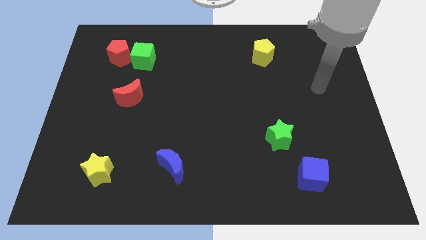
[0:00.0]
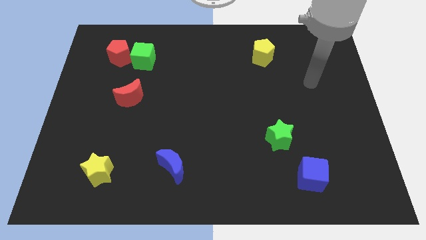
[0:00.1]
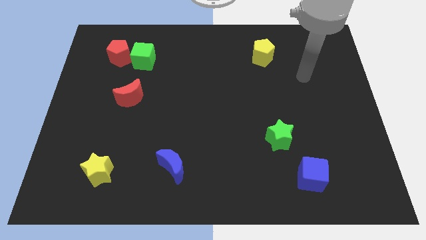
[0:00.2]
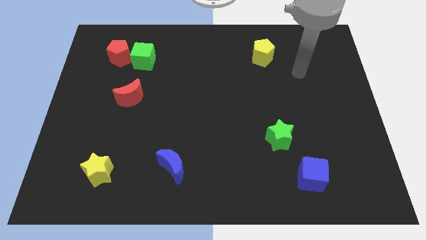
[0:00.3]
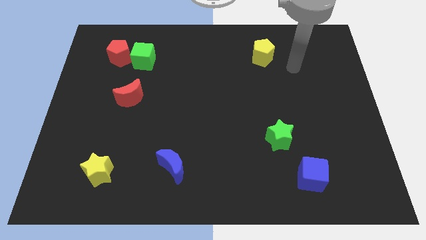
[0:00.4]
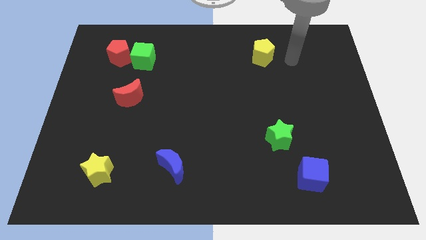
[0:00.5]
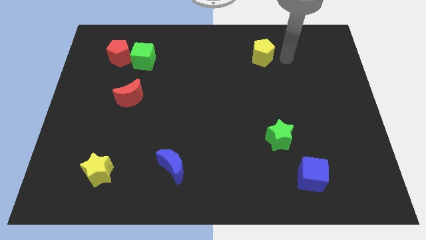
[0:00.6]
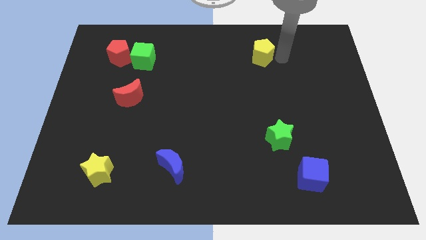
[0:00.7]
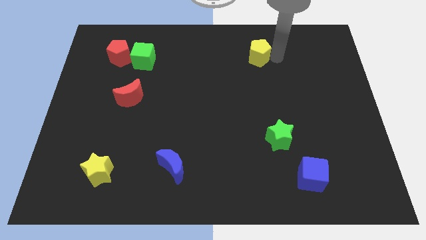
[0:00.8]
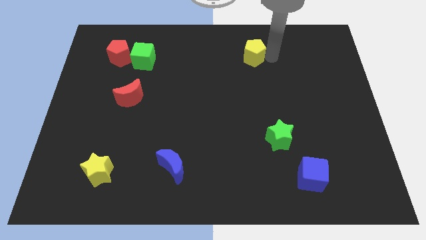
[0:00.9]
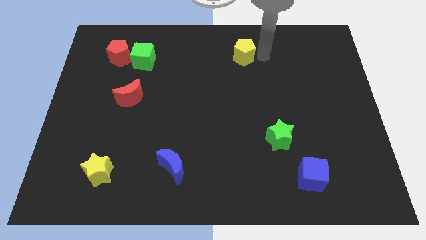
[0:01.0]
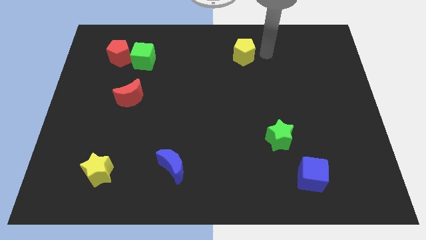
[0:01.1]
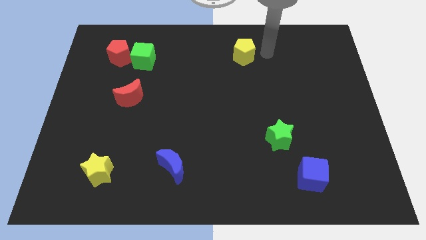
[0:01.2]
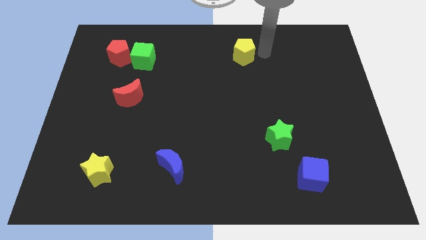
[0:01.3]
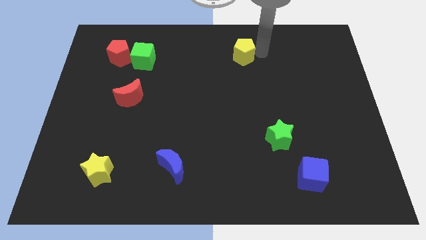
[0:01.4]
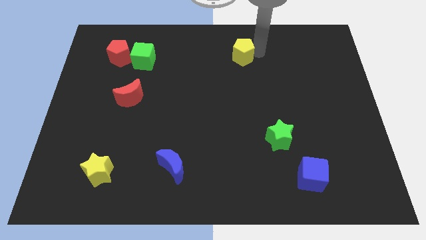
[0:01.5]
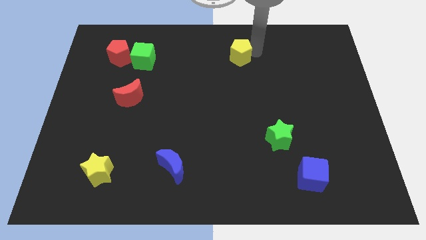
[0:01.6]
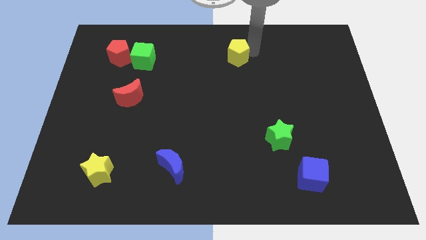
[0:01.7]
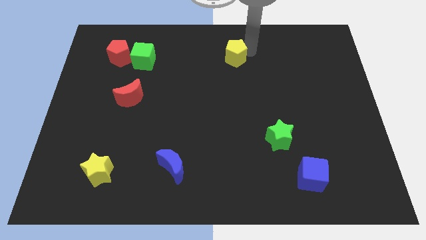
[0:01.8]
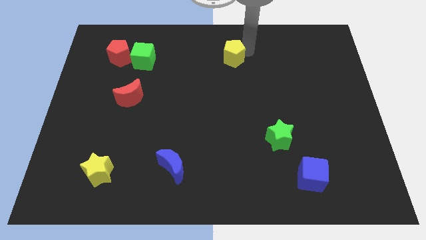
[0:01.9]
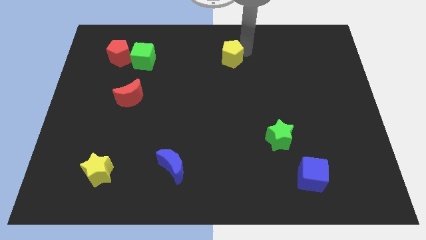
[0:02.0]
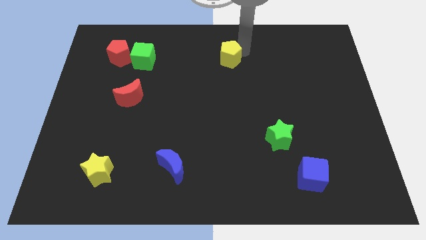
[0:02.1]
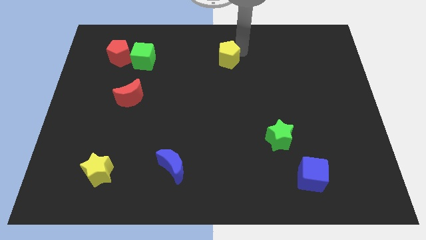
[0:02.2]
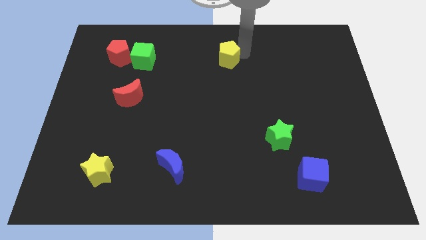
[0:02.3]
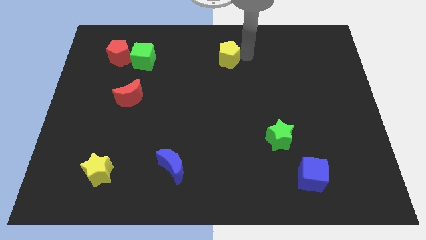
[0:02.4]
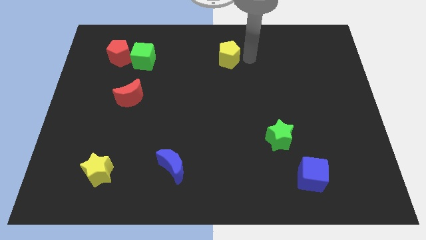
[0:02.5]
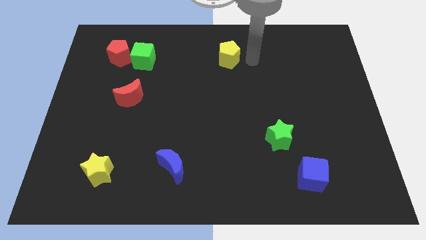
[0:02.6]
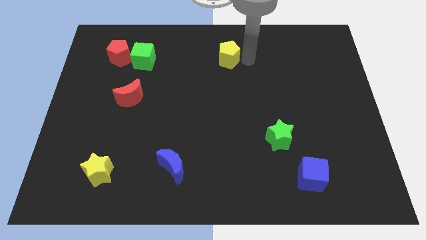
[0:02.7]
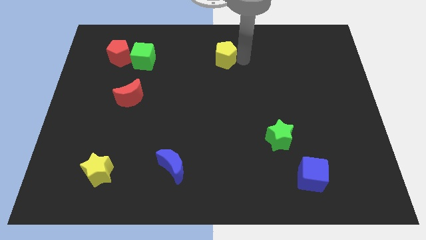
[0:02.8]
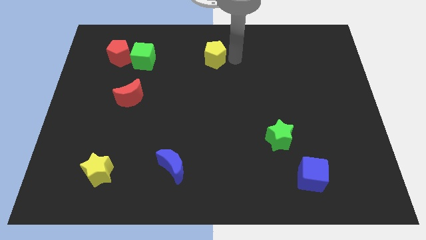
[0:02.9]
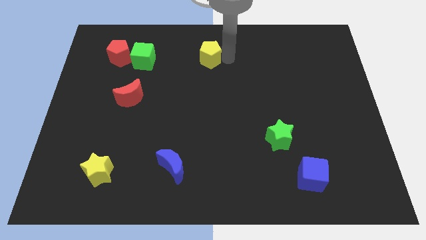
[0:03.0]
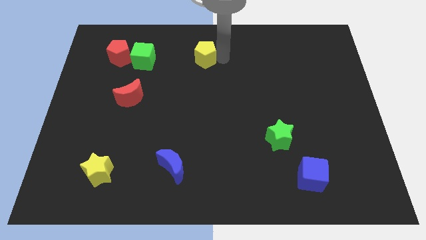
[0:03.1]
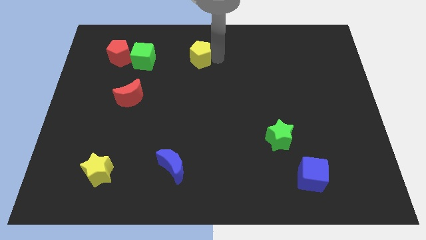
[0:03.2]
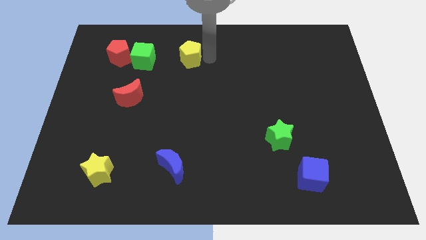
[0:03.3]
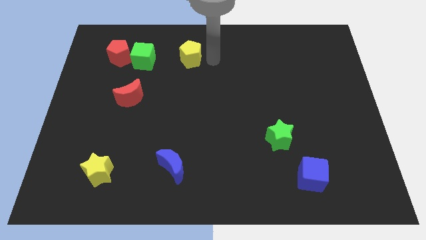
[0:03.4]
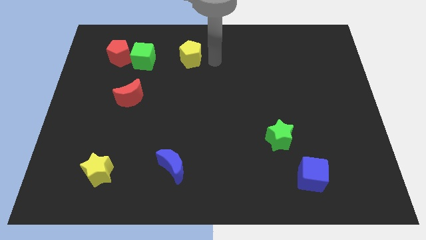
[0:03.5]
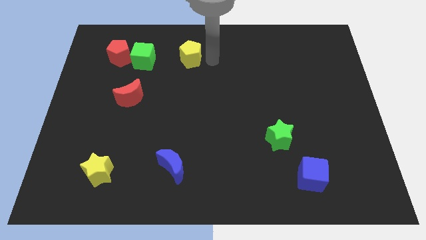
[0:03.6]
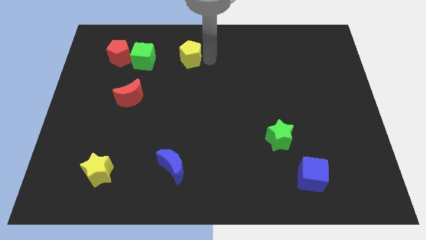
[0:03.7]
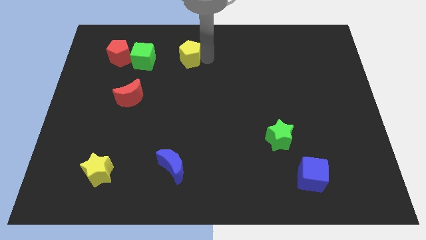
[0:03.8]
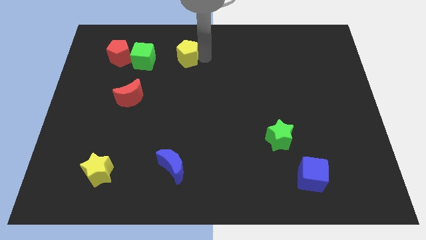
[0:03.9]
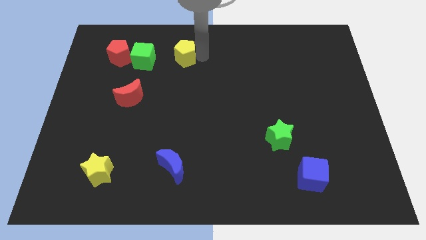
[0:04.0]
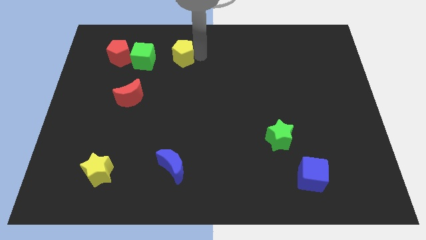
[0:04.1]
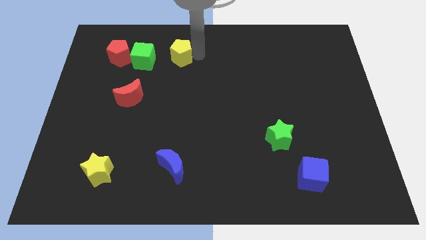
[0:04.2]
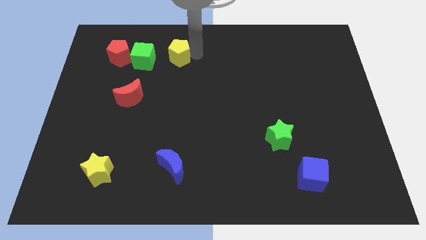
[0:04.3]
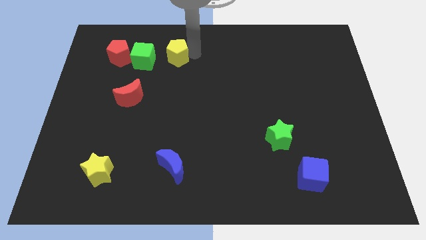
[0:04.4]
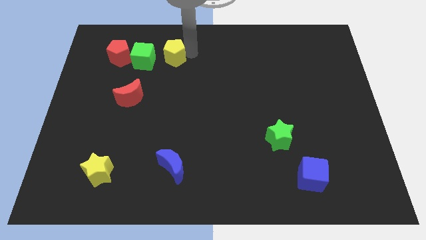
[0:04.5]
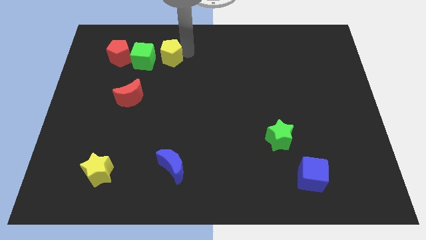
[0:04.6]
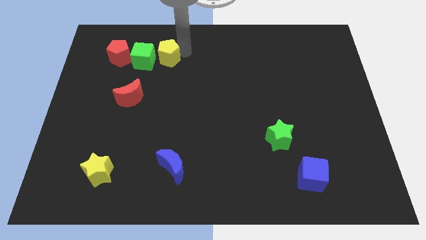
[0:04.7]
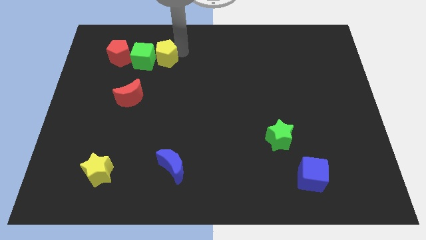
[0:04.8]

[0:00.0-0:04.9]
slide the yellow pentagon towards the green cube

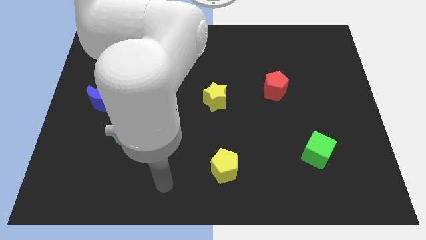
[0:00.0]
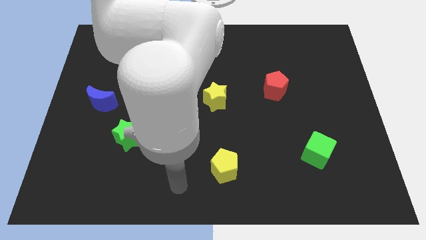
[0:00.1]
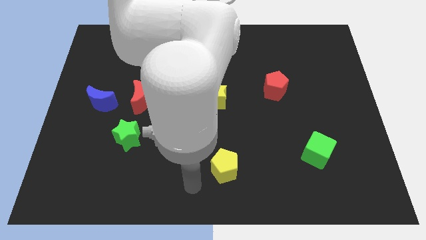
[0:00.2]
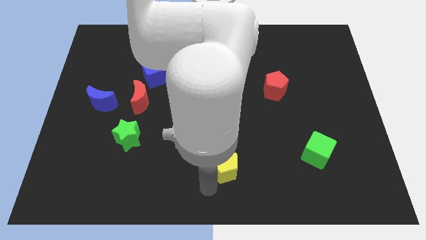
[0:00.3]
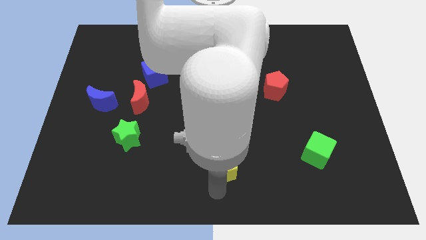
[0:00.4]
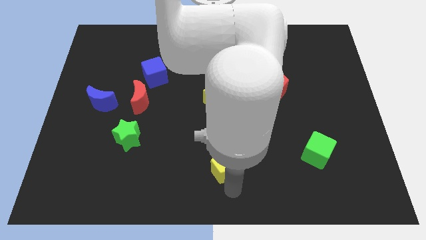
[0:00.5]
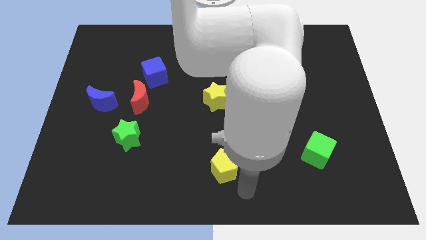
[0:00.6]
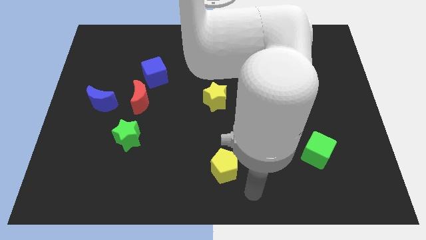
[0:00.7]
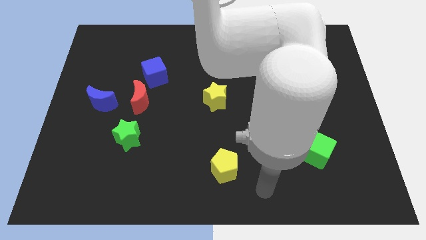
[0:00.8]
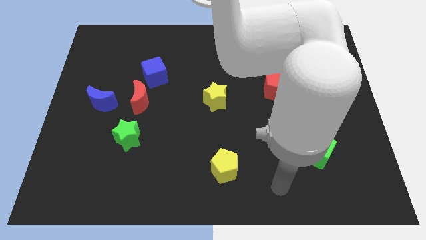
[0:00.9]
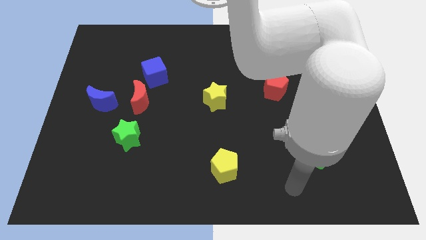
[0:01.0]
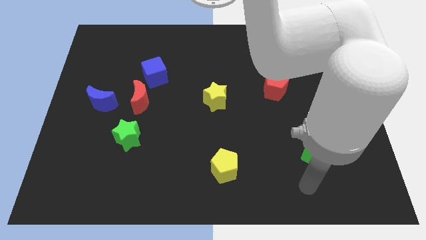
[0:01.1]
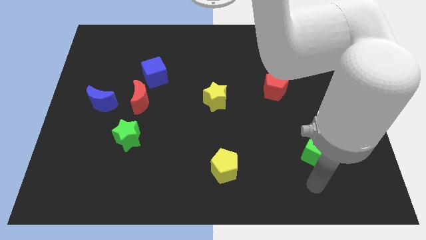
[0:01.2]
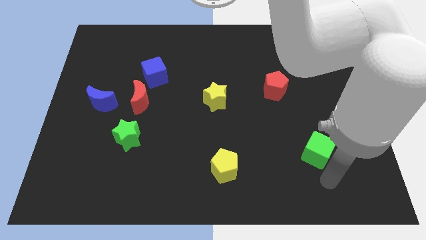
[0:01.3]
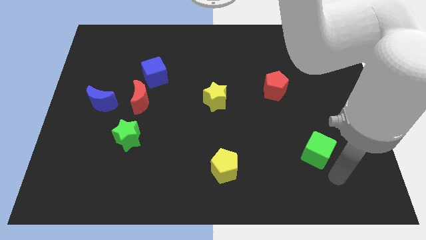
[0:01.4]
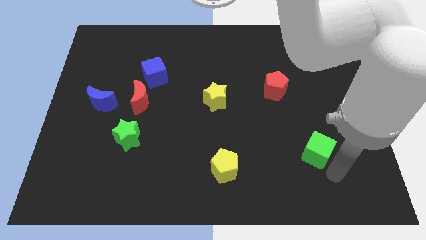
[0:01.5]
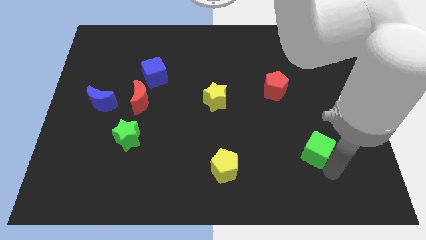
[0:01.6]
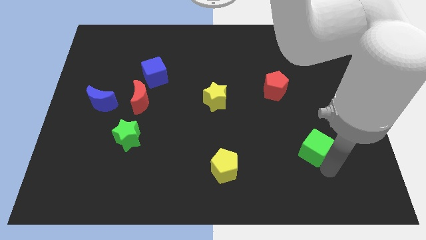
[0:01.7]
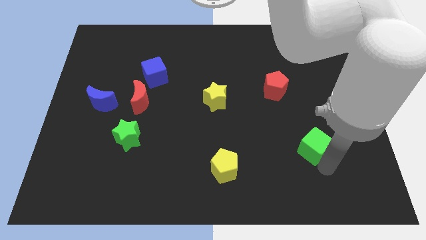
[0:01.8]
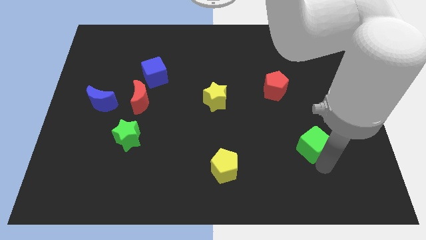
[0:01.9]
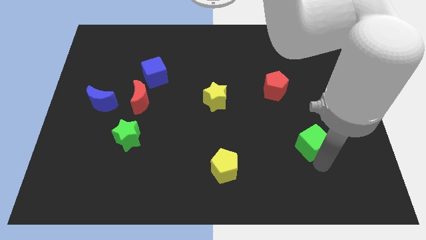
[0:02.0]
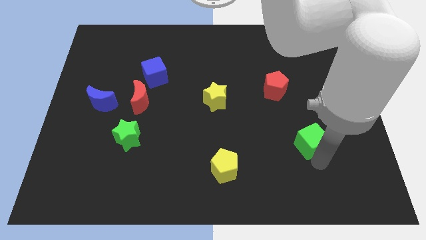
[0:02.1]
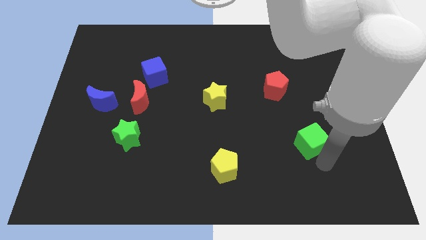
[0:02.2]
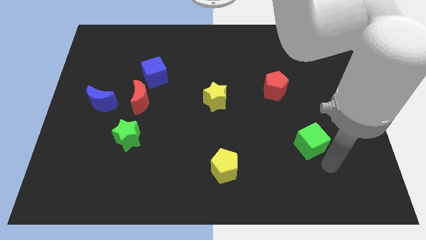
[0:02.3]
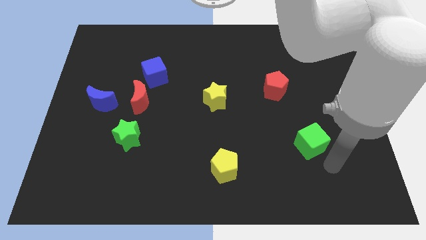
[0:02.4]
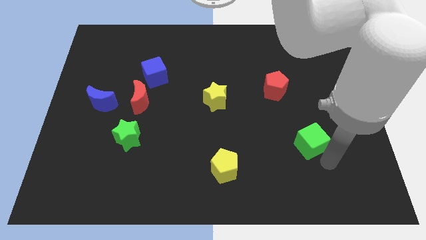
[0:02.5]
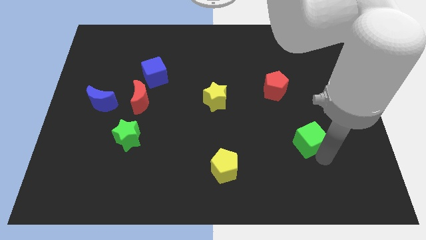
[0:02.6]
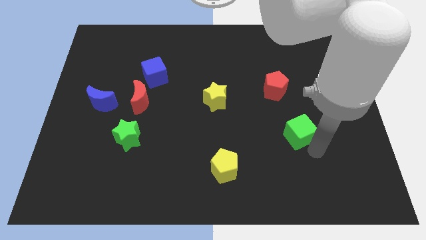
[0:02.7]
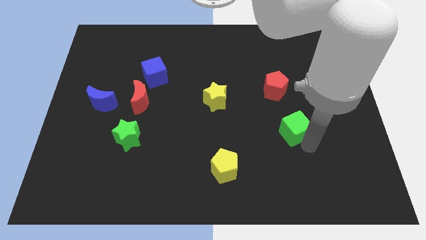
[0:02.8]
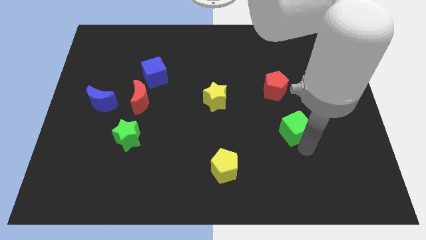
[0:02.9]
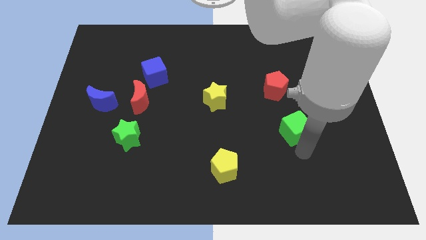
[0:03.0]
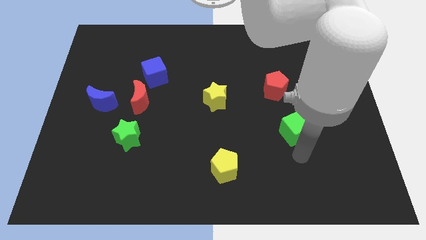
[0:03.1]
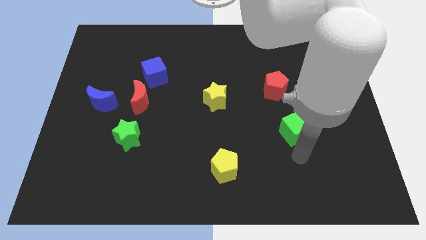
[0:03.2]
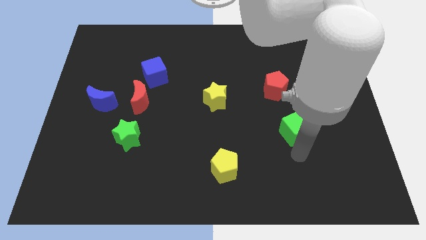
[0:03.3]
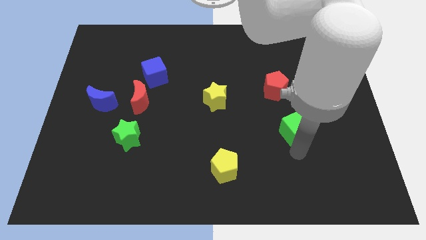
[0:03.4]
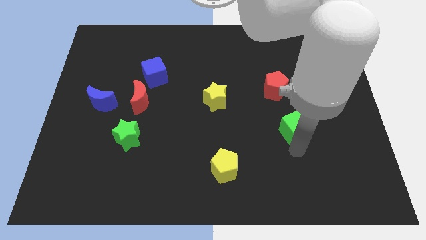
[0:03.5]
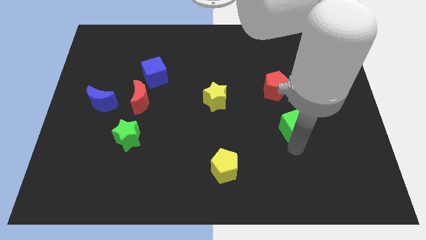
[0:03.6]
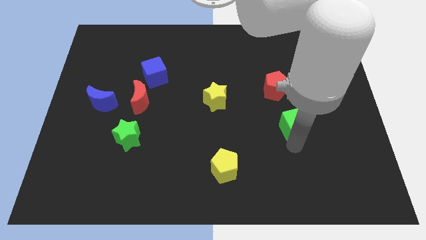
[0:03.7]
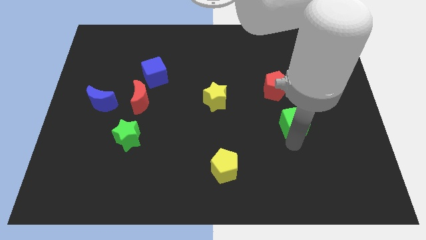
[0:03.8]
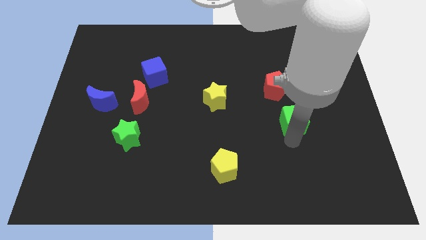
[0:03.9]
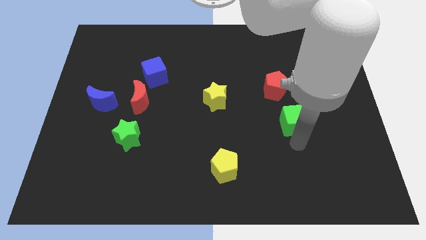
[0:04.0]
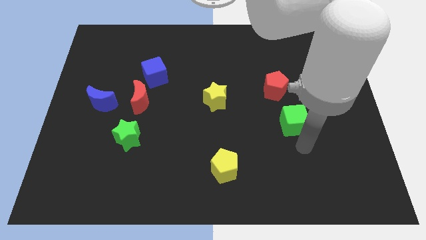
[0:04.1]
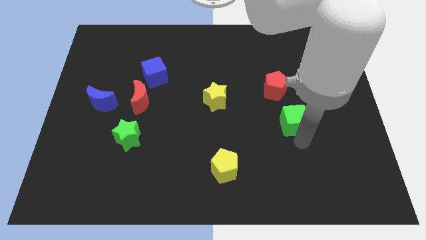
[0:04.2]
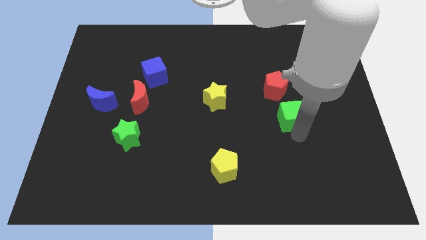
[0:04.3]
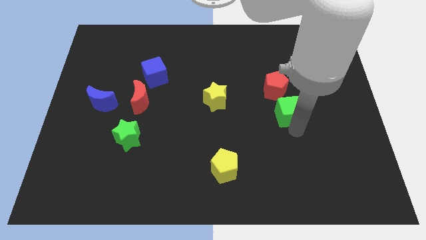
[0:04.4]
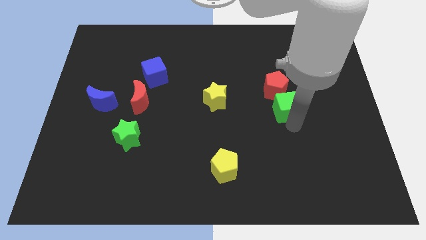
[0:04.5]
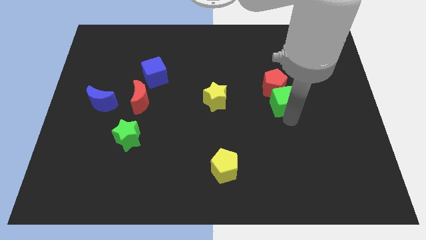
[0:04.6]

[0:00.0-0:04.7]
put the green cube next to the red pentagon
